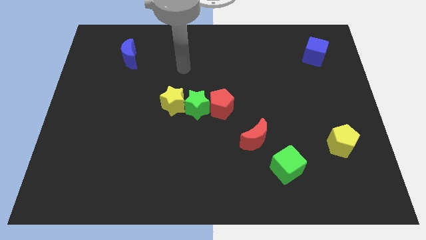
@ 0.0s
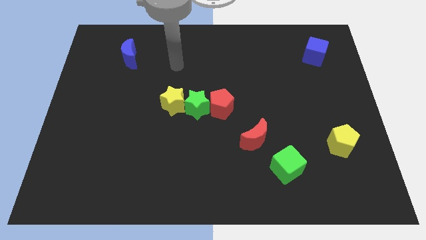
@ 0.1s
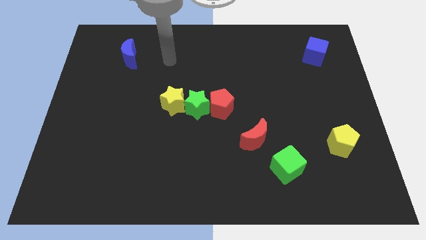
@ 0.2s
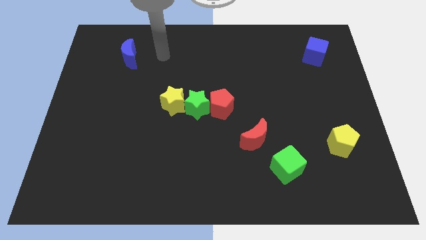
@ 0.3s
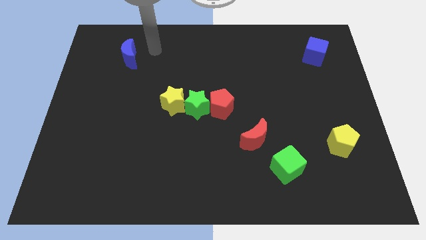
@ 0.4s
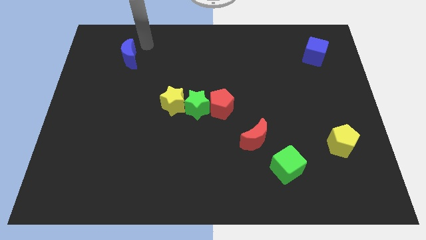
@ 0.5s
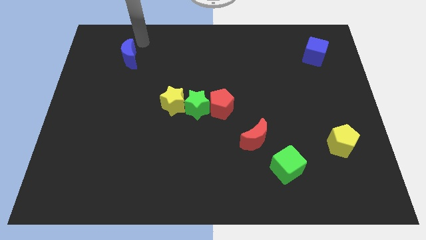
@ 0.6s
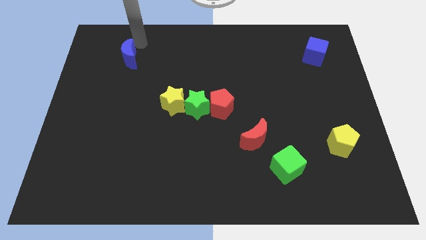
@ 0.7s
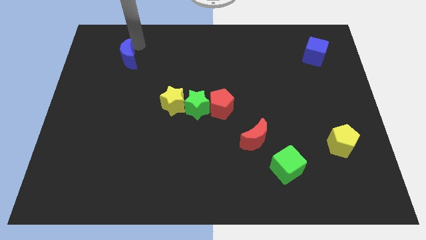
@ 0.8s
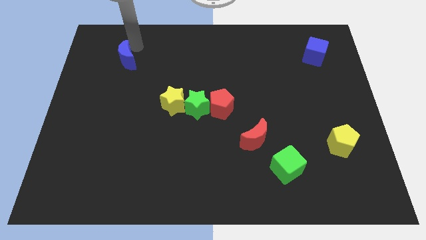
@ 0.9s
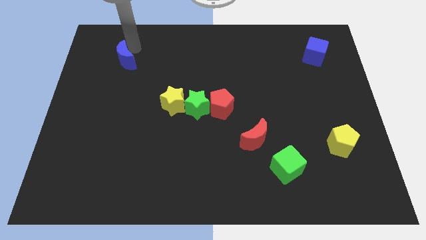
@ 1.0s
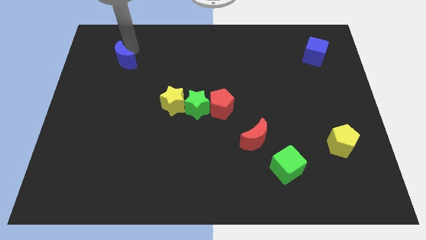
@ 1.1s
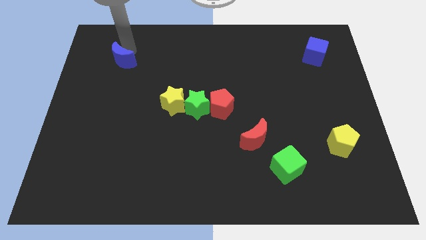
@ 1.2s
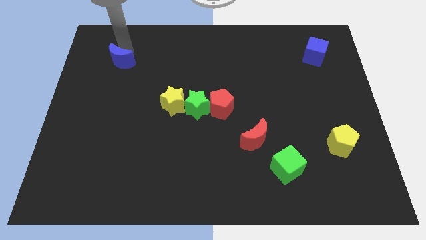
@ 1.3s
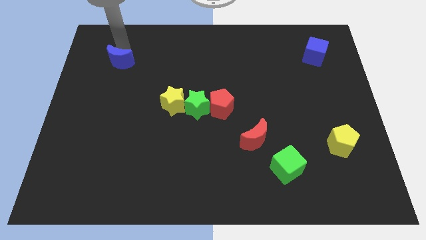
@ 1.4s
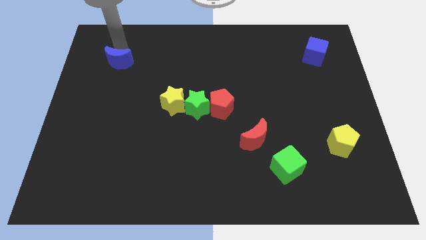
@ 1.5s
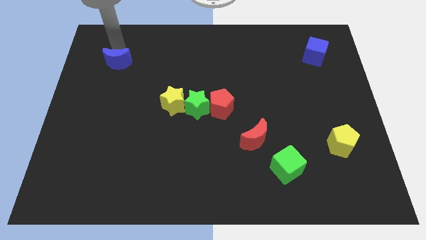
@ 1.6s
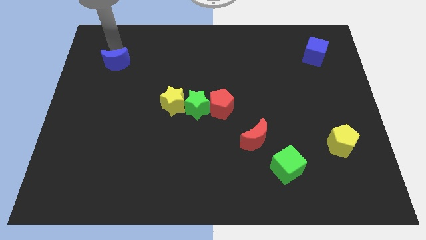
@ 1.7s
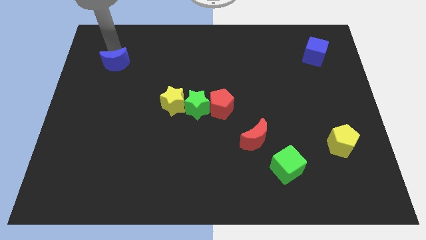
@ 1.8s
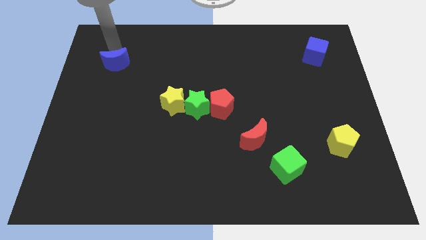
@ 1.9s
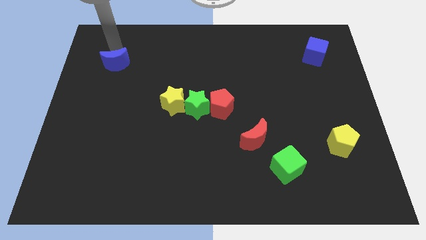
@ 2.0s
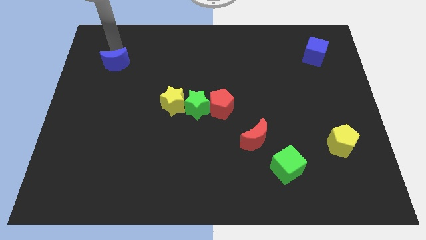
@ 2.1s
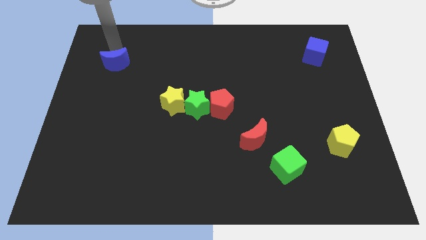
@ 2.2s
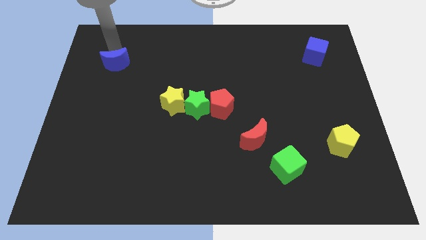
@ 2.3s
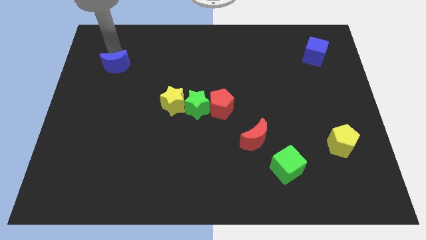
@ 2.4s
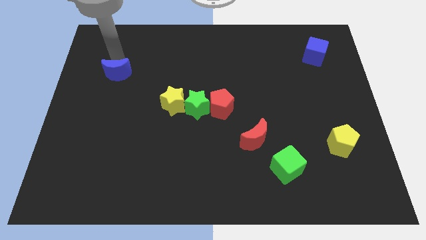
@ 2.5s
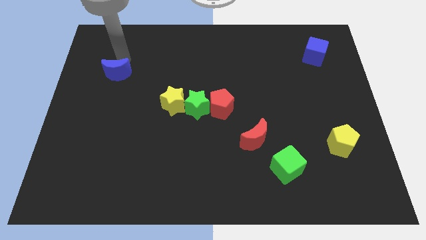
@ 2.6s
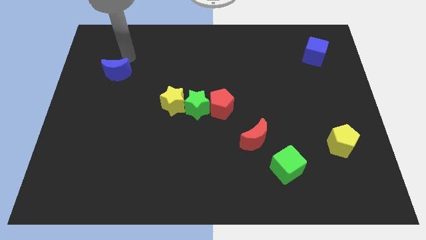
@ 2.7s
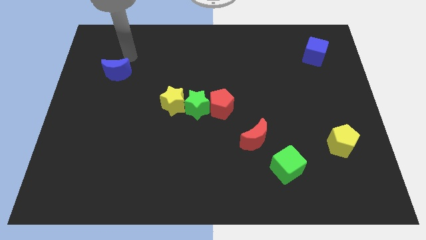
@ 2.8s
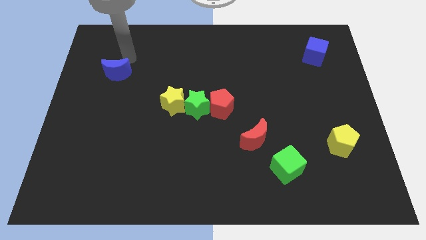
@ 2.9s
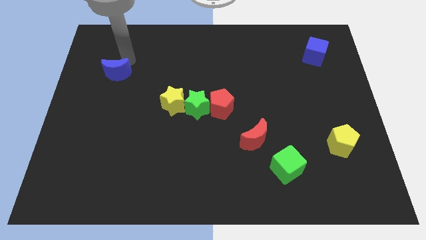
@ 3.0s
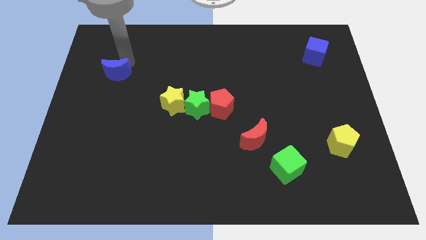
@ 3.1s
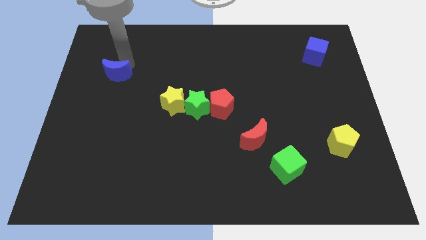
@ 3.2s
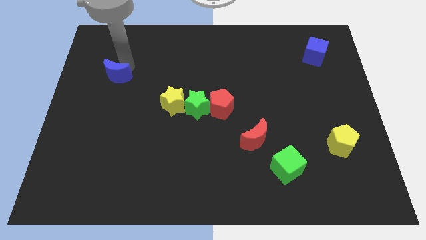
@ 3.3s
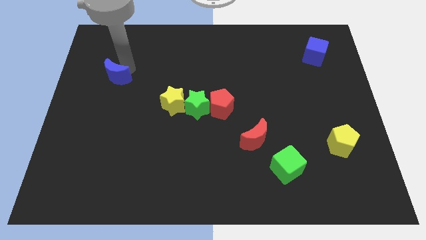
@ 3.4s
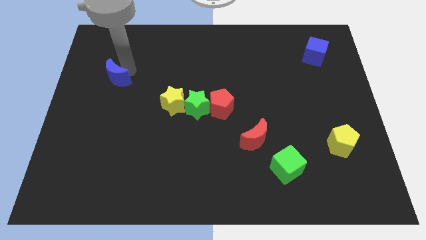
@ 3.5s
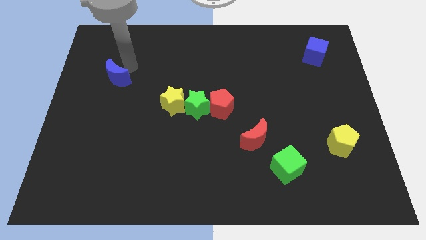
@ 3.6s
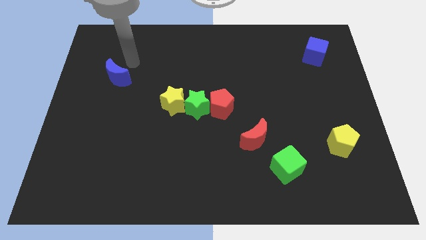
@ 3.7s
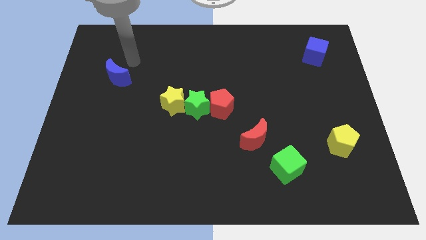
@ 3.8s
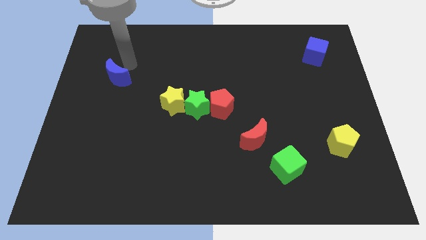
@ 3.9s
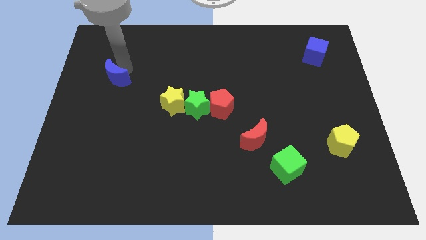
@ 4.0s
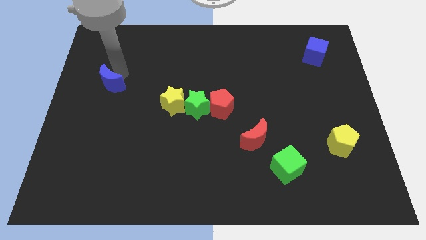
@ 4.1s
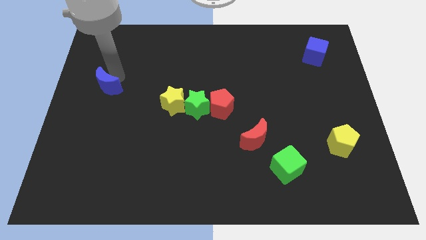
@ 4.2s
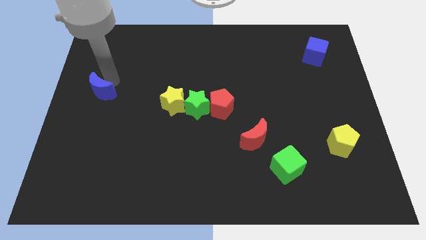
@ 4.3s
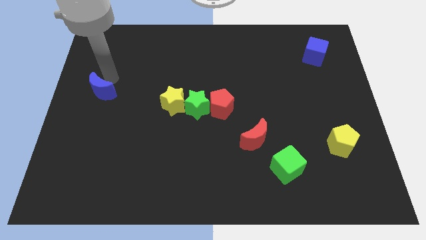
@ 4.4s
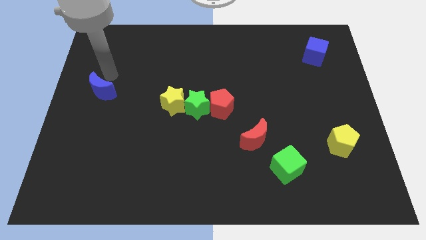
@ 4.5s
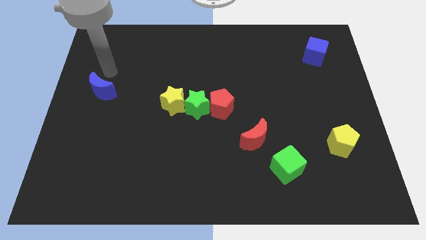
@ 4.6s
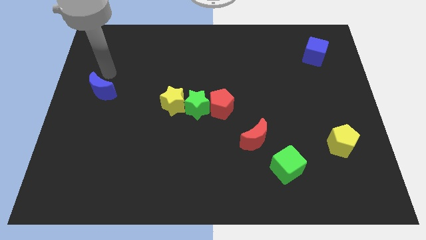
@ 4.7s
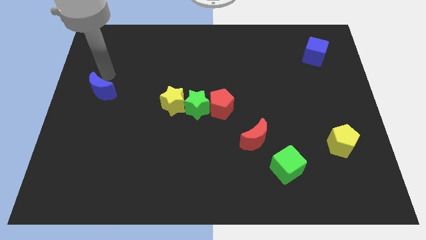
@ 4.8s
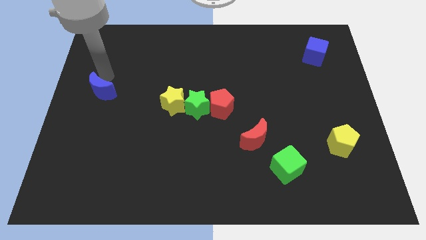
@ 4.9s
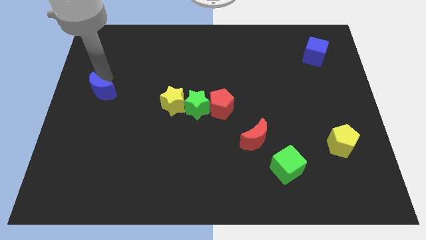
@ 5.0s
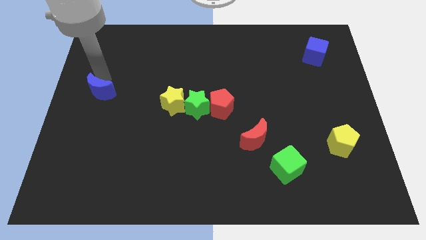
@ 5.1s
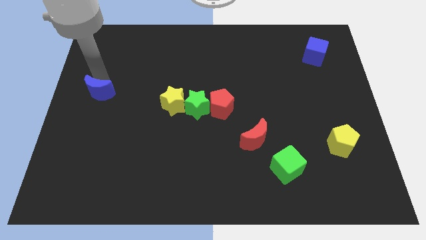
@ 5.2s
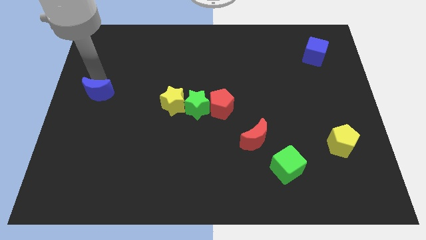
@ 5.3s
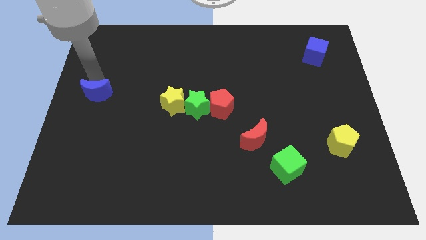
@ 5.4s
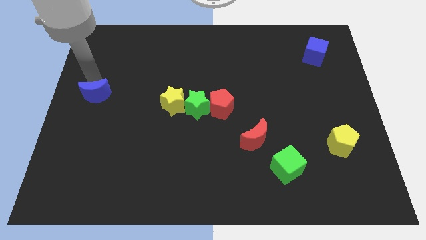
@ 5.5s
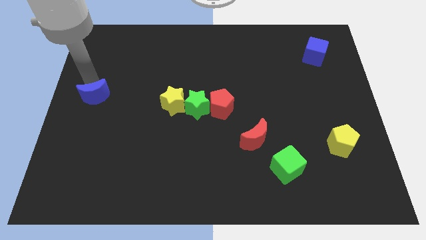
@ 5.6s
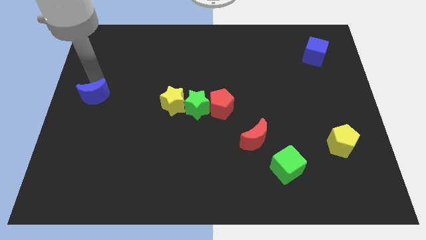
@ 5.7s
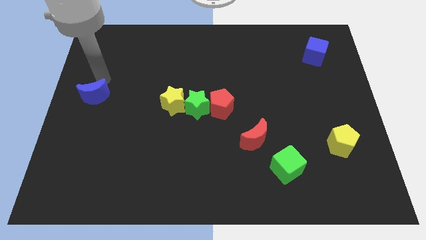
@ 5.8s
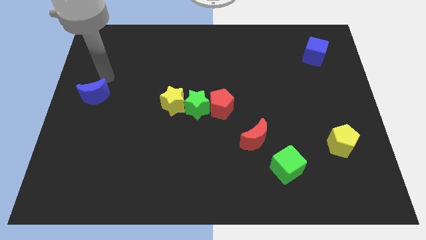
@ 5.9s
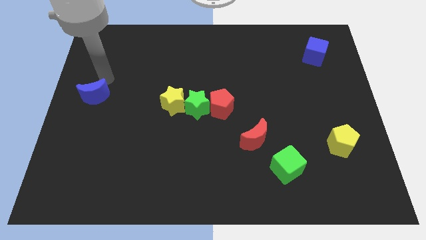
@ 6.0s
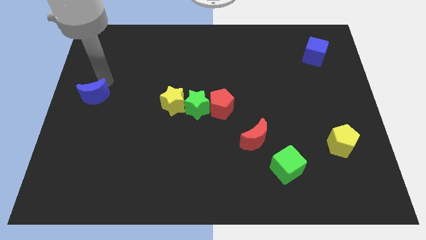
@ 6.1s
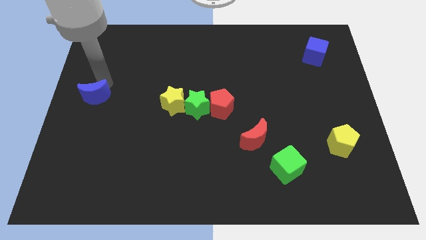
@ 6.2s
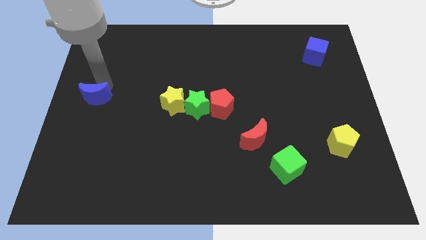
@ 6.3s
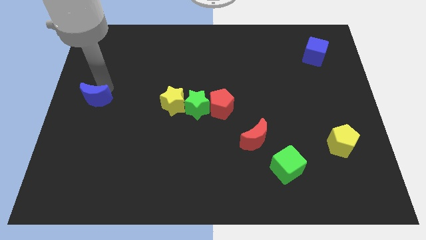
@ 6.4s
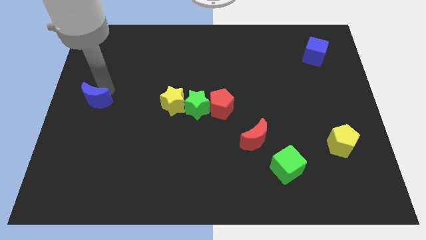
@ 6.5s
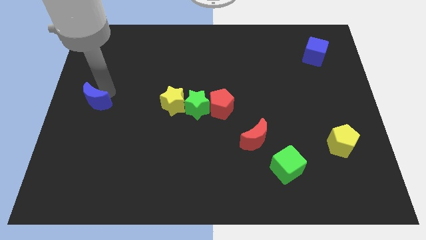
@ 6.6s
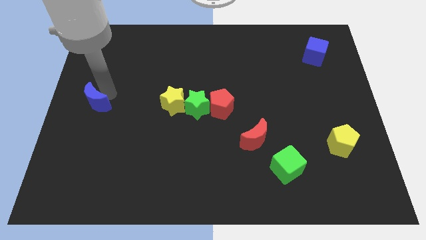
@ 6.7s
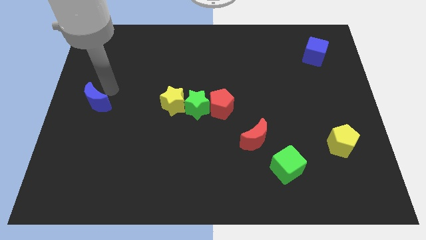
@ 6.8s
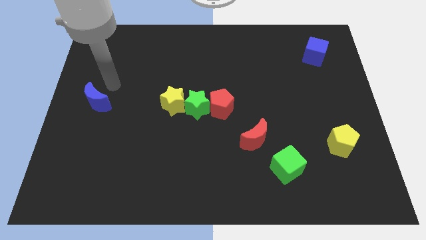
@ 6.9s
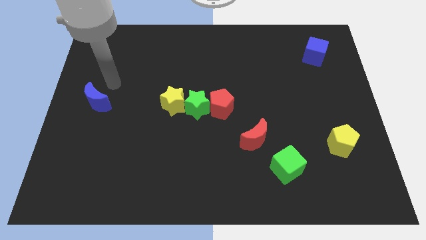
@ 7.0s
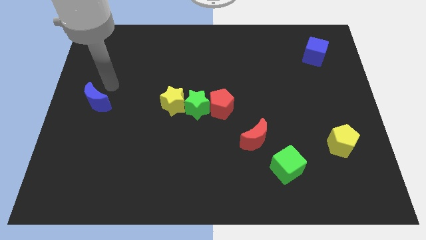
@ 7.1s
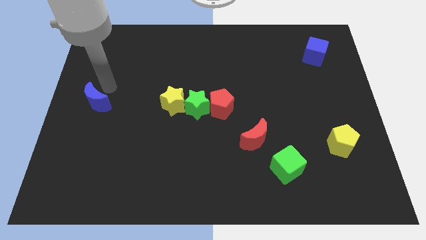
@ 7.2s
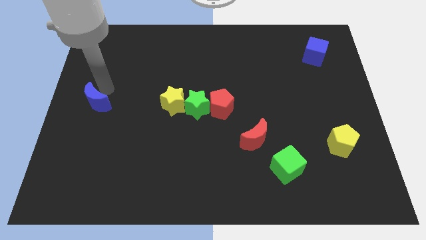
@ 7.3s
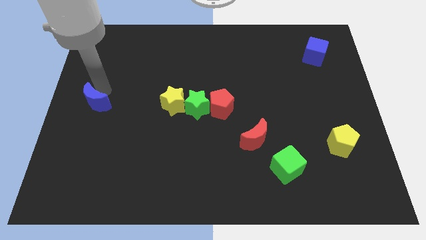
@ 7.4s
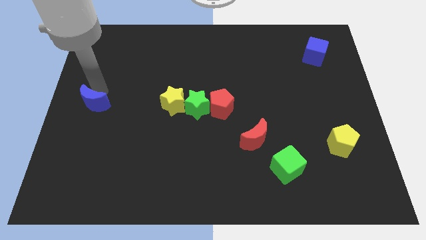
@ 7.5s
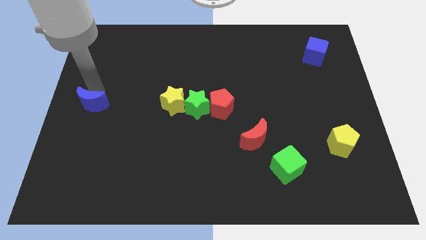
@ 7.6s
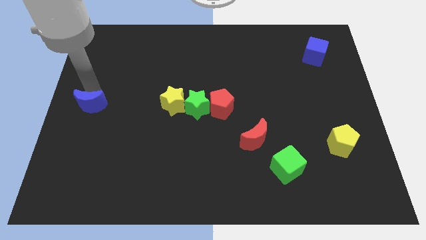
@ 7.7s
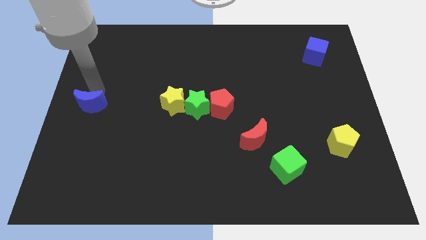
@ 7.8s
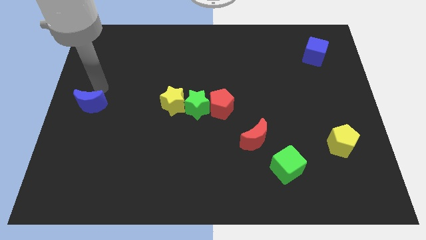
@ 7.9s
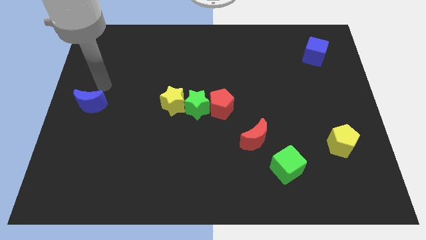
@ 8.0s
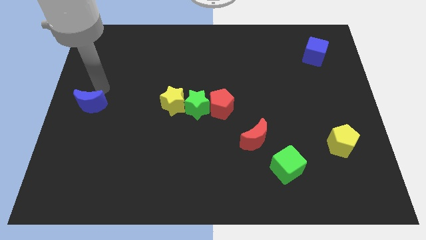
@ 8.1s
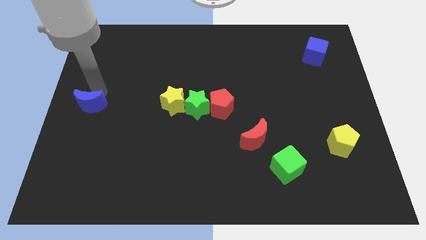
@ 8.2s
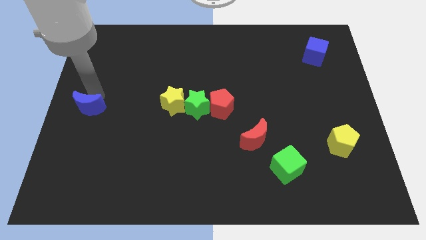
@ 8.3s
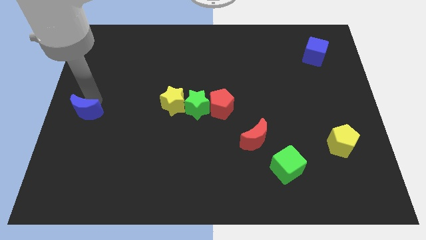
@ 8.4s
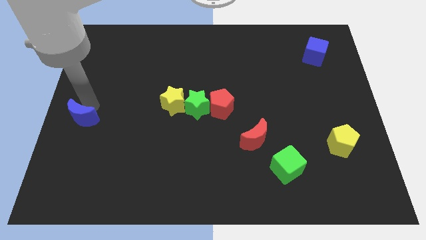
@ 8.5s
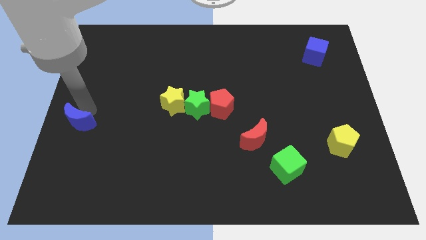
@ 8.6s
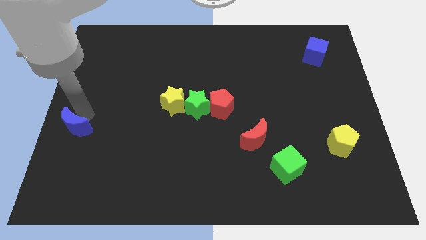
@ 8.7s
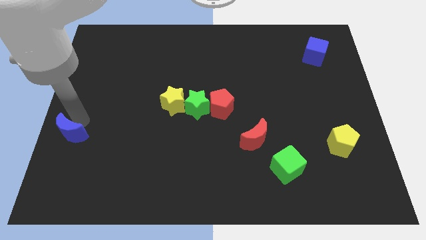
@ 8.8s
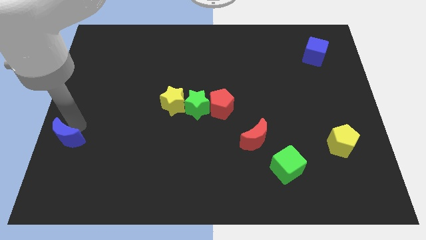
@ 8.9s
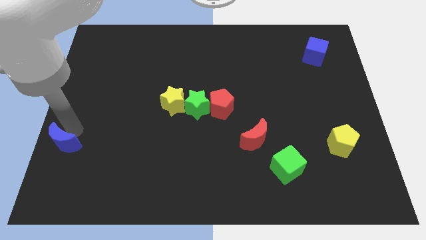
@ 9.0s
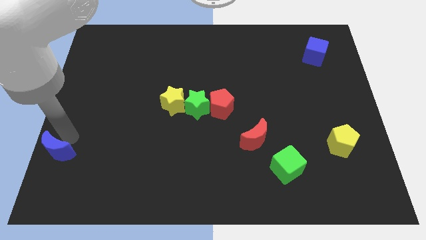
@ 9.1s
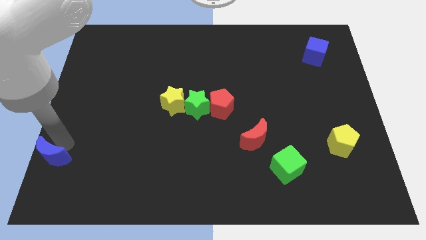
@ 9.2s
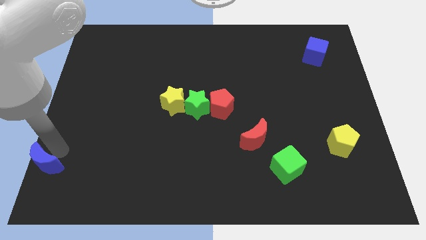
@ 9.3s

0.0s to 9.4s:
move the blue moon to the bottom left of the board
